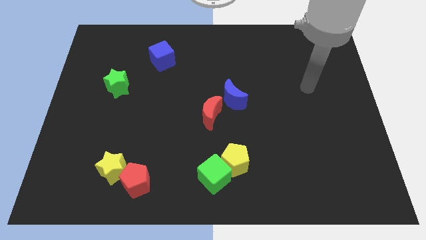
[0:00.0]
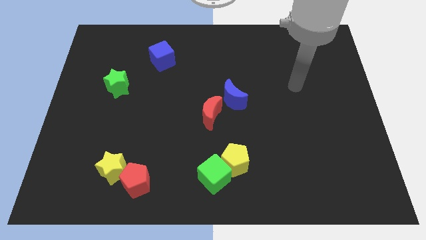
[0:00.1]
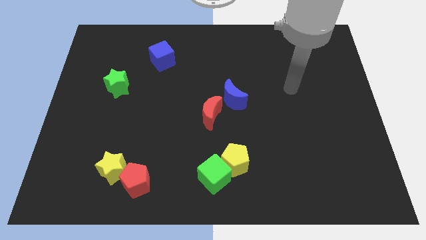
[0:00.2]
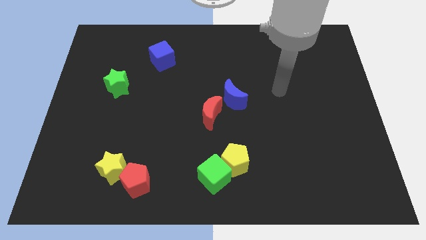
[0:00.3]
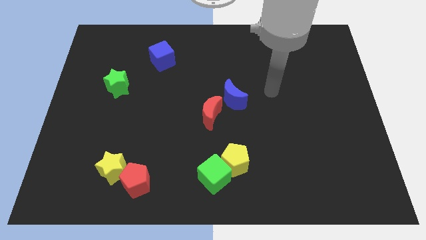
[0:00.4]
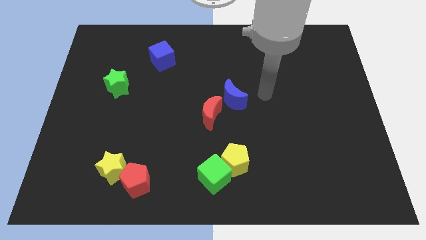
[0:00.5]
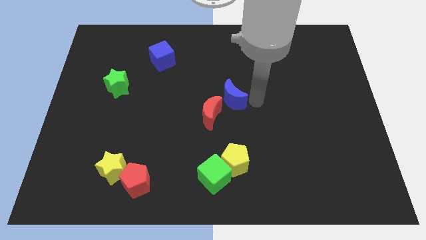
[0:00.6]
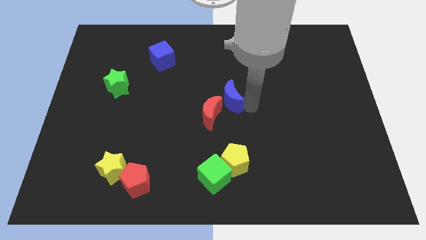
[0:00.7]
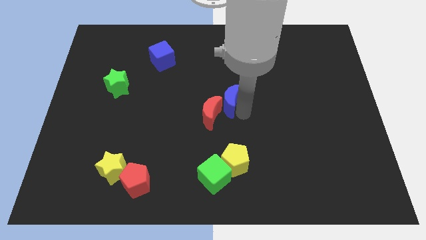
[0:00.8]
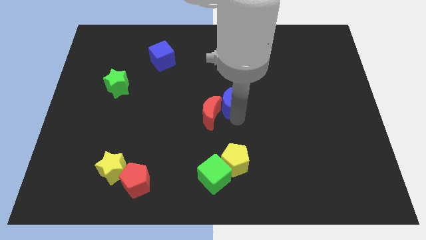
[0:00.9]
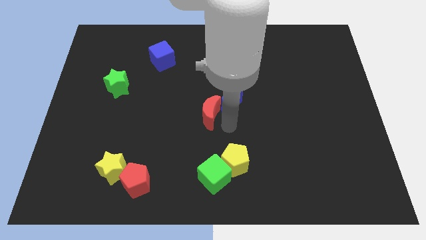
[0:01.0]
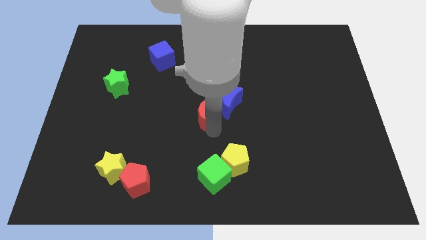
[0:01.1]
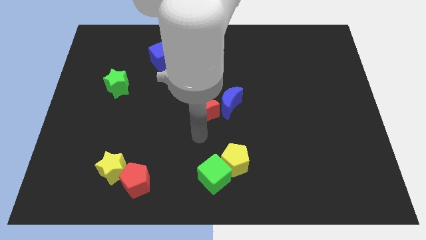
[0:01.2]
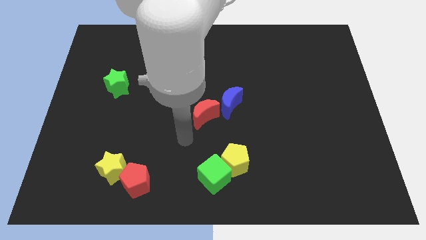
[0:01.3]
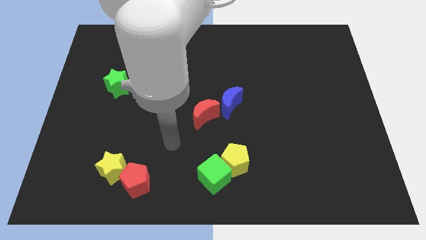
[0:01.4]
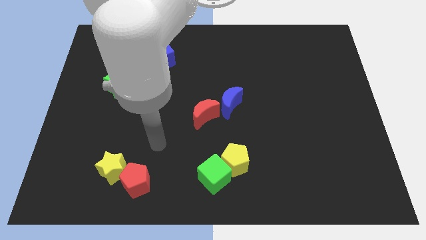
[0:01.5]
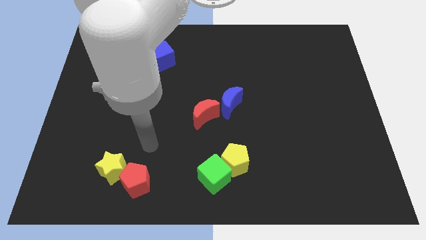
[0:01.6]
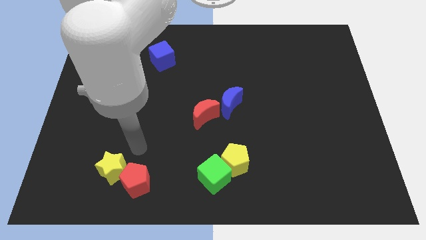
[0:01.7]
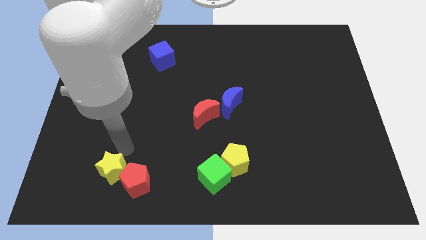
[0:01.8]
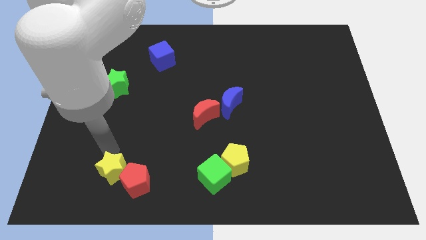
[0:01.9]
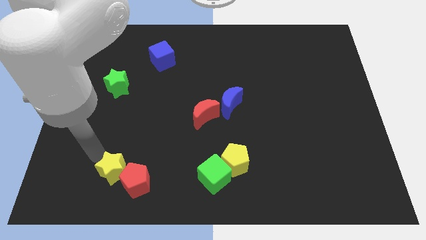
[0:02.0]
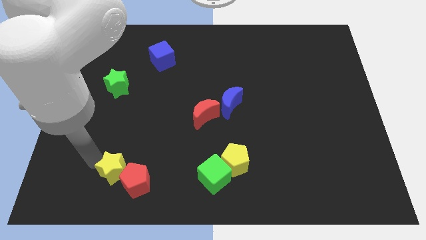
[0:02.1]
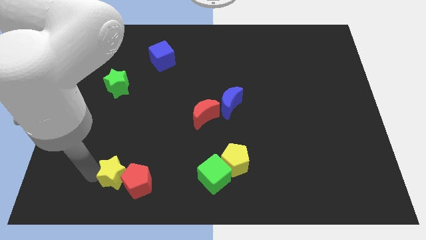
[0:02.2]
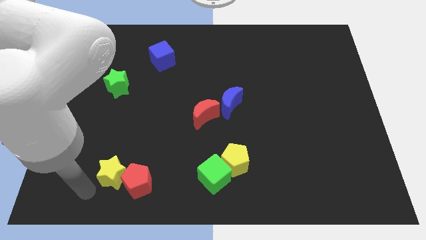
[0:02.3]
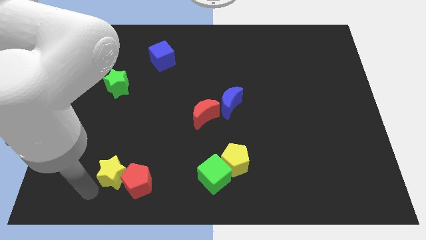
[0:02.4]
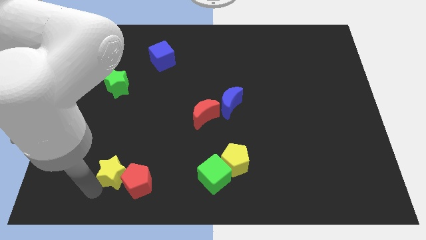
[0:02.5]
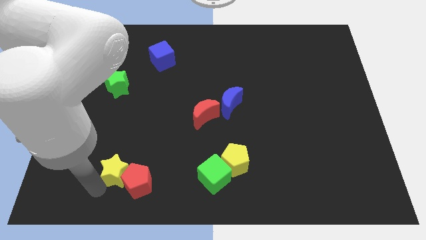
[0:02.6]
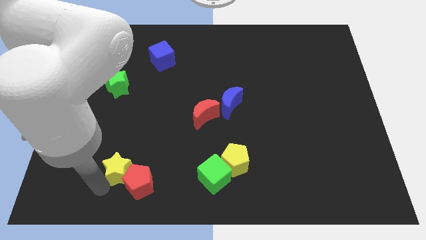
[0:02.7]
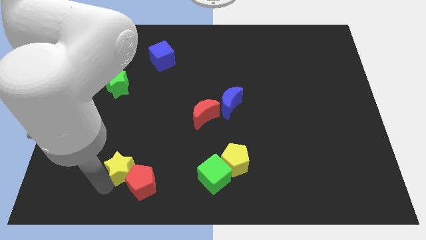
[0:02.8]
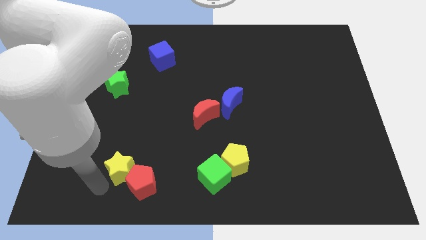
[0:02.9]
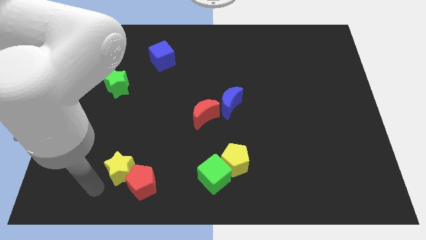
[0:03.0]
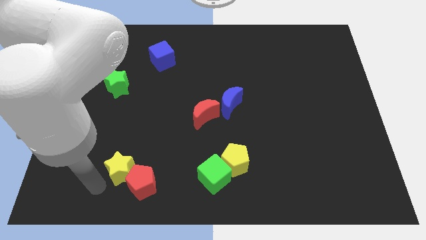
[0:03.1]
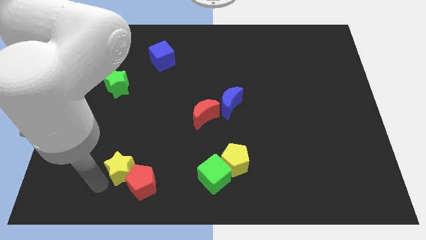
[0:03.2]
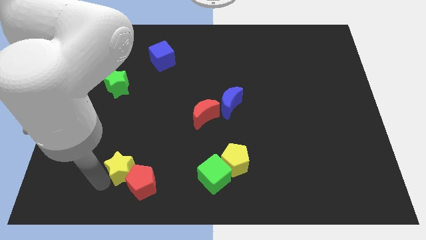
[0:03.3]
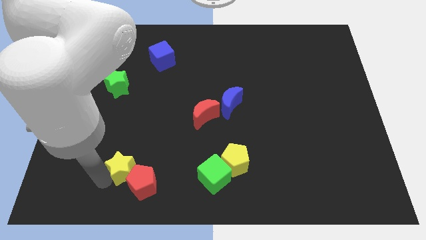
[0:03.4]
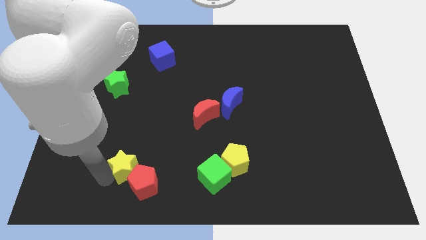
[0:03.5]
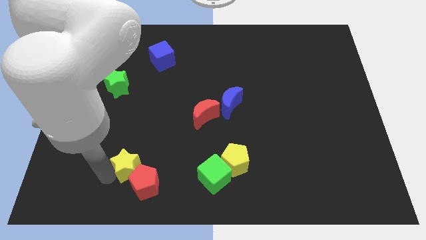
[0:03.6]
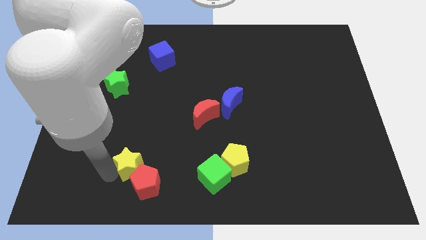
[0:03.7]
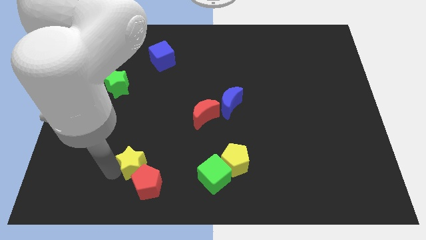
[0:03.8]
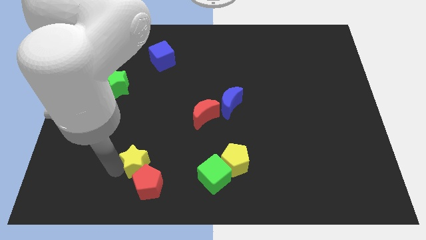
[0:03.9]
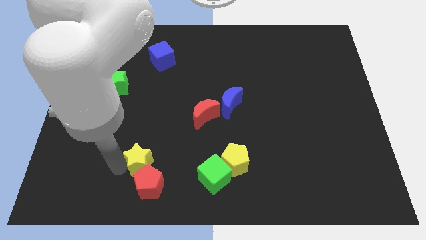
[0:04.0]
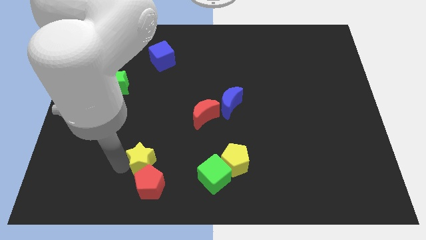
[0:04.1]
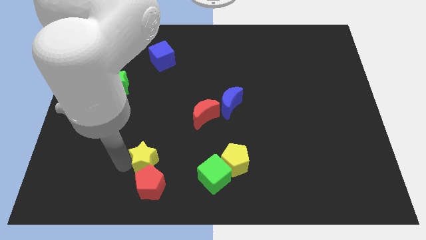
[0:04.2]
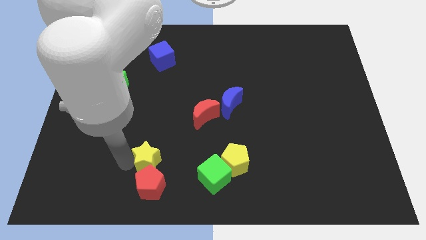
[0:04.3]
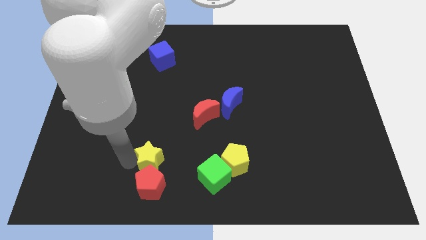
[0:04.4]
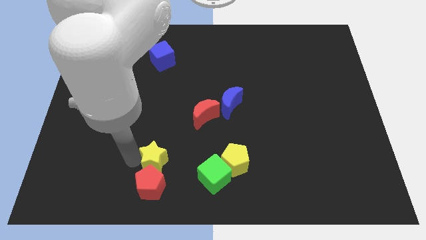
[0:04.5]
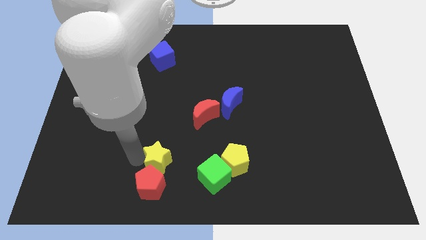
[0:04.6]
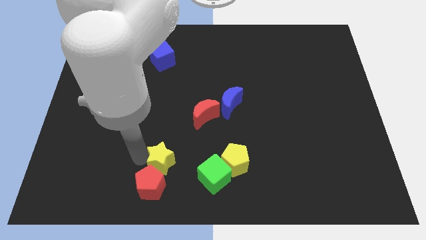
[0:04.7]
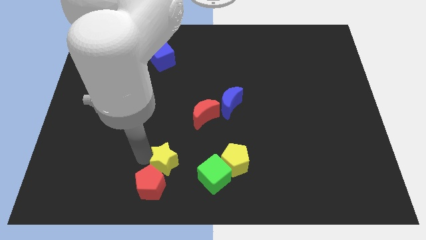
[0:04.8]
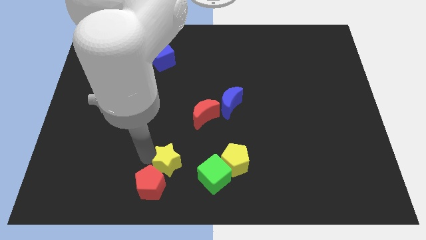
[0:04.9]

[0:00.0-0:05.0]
push the yellow star diagonally up and to the left of the green cube

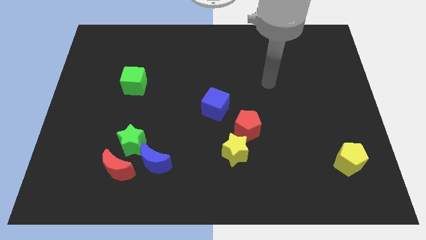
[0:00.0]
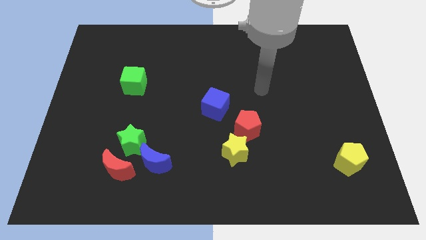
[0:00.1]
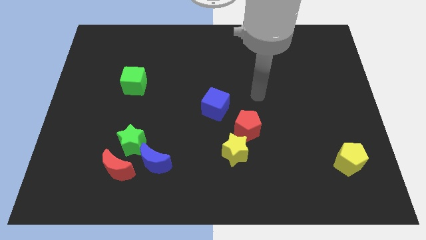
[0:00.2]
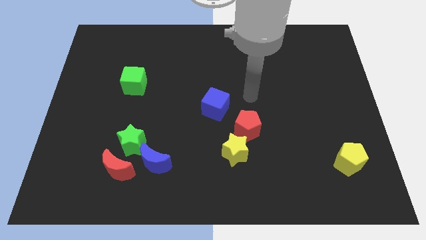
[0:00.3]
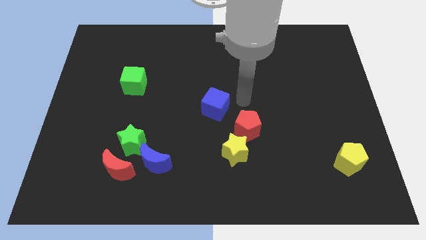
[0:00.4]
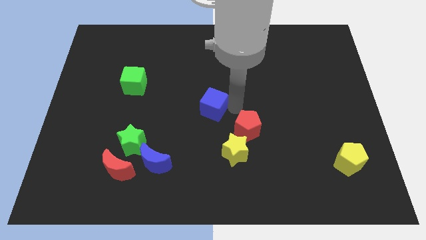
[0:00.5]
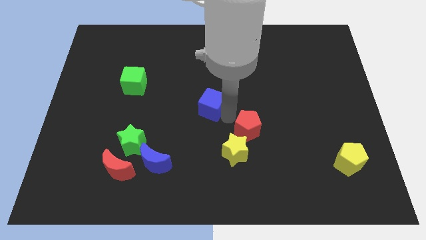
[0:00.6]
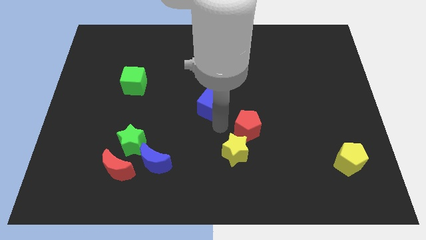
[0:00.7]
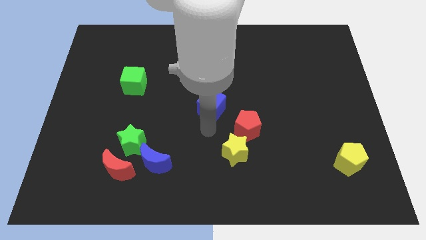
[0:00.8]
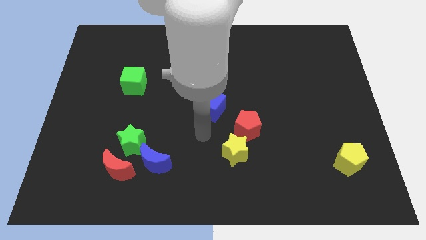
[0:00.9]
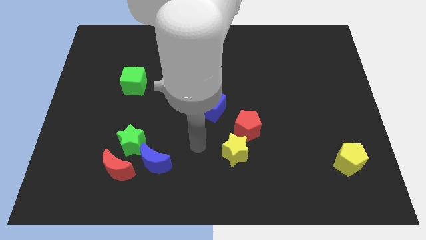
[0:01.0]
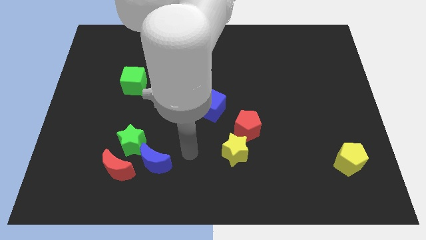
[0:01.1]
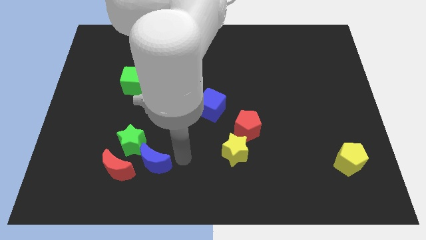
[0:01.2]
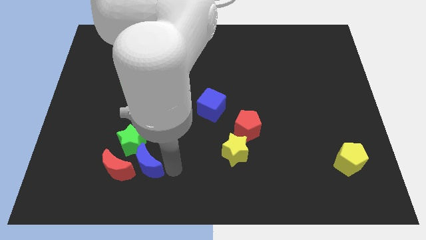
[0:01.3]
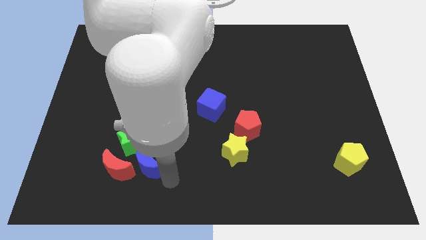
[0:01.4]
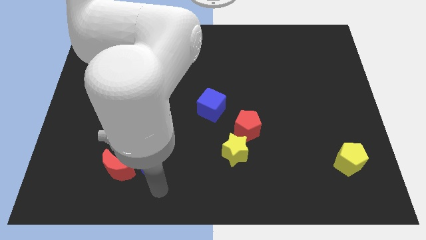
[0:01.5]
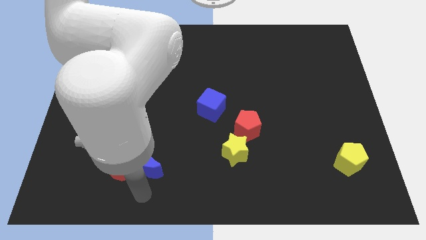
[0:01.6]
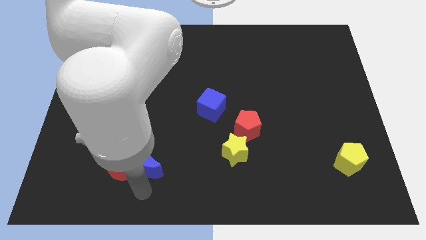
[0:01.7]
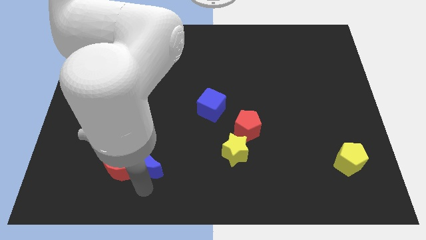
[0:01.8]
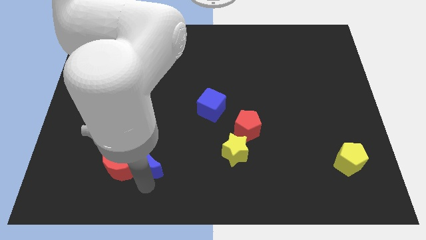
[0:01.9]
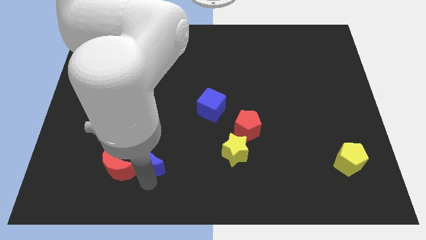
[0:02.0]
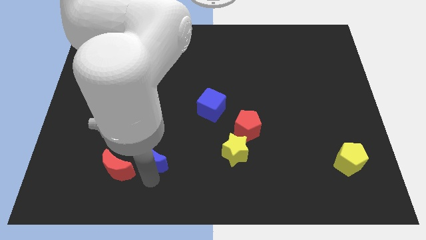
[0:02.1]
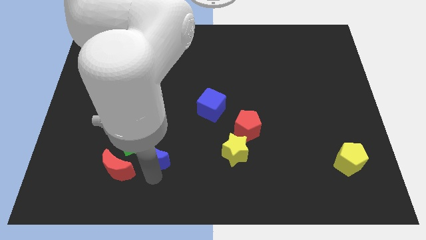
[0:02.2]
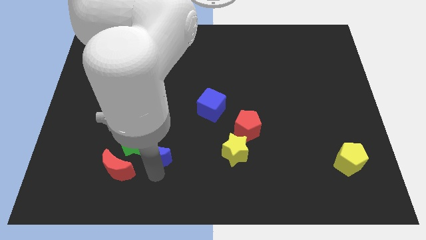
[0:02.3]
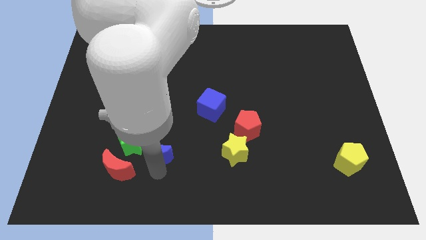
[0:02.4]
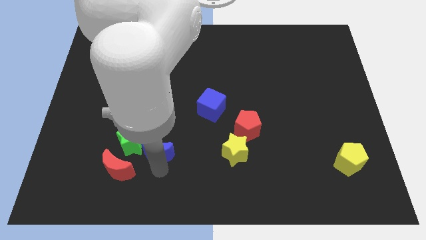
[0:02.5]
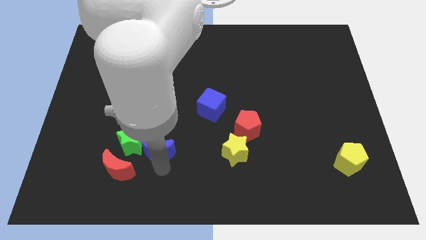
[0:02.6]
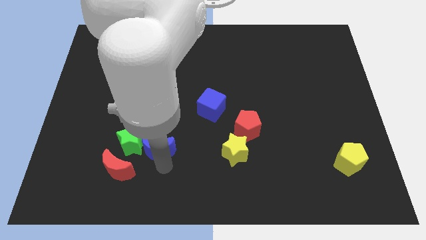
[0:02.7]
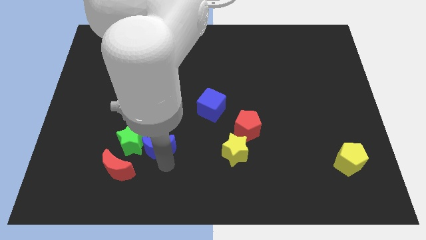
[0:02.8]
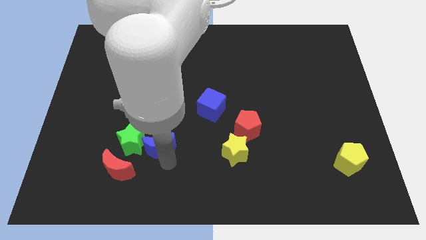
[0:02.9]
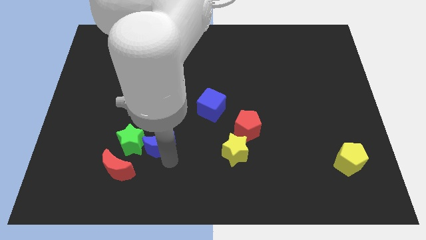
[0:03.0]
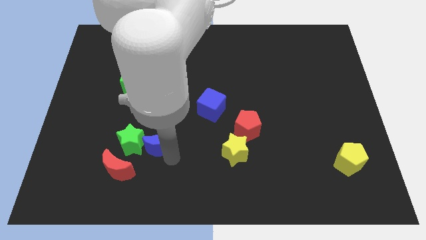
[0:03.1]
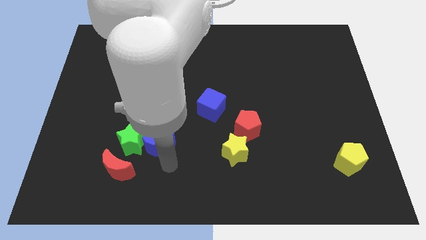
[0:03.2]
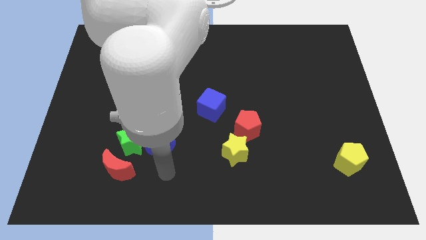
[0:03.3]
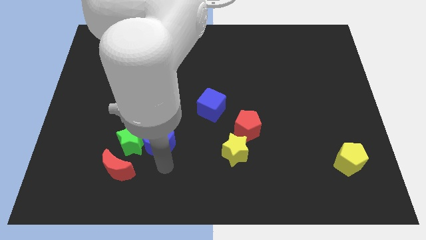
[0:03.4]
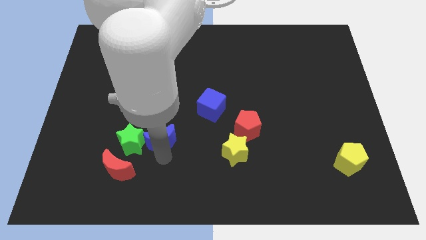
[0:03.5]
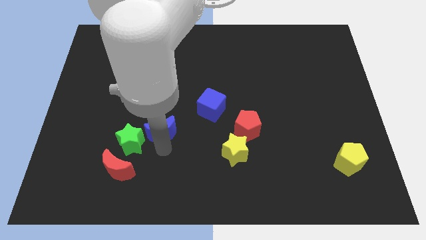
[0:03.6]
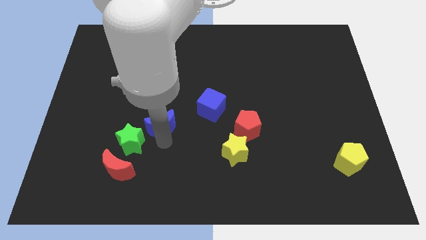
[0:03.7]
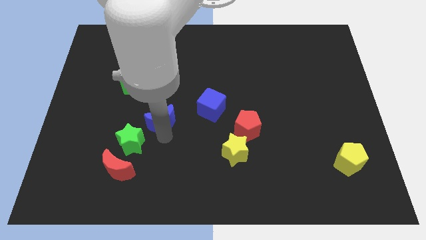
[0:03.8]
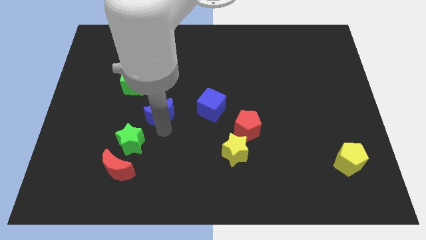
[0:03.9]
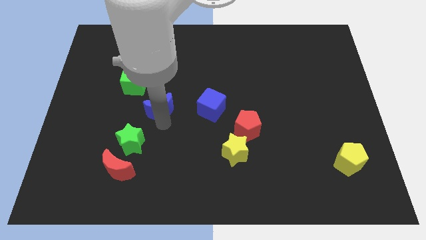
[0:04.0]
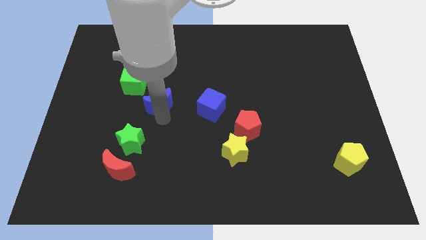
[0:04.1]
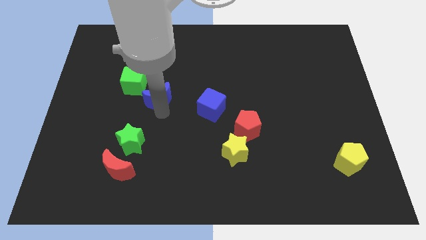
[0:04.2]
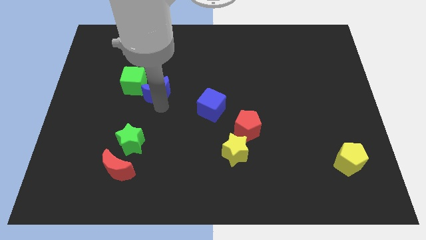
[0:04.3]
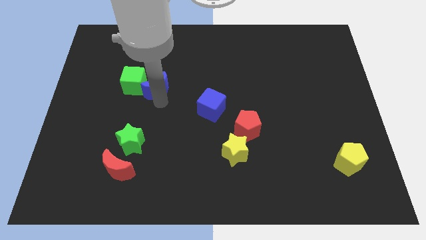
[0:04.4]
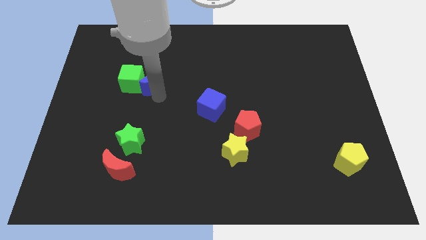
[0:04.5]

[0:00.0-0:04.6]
push the blue moon diagonally up and to the right of the green cube
